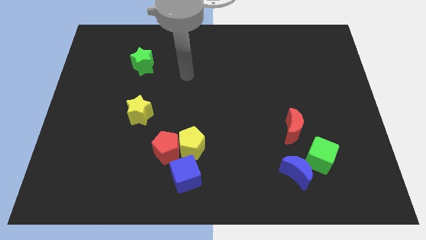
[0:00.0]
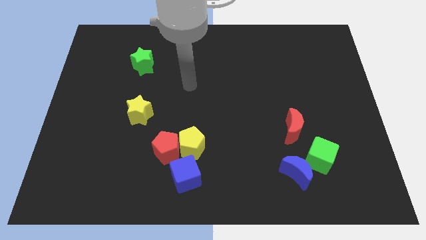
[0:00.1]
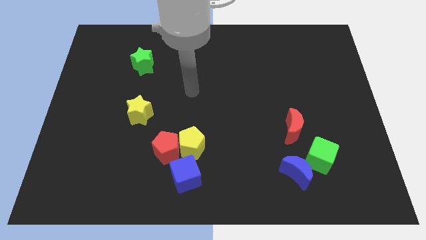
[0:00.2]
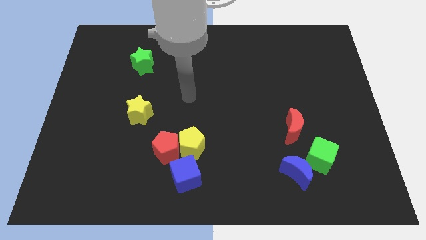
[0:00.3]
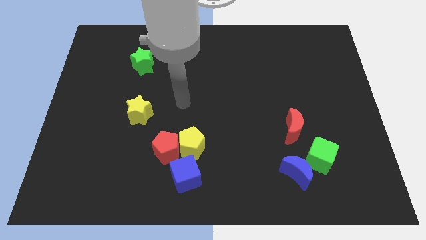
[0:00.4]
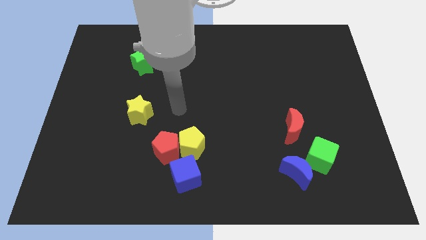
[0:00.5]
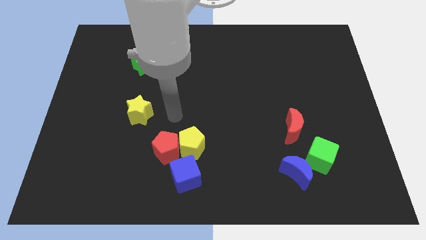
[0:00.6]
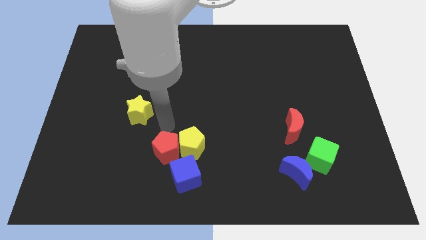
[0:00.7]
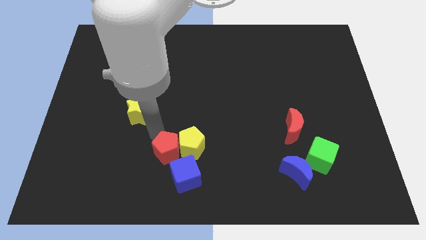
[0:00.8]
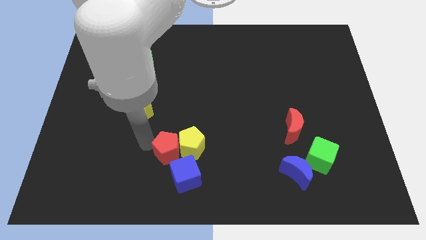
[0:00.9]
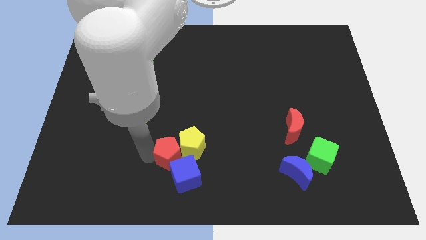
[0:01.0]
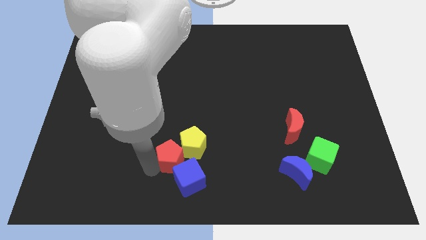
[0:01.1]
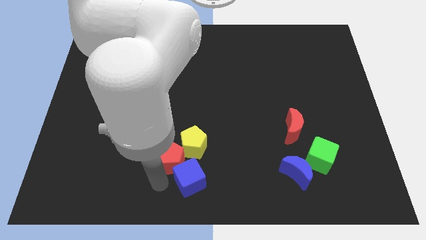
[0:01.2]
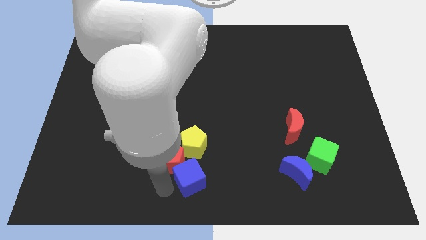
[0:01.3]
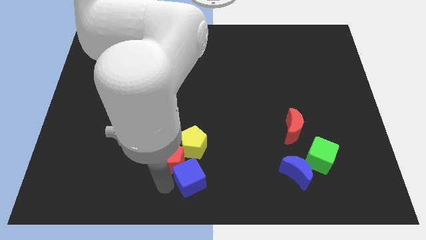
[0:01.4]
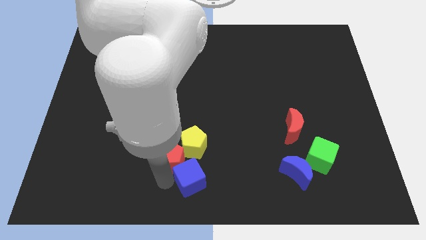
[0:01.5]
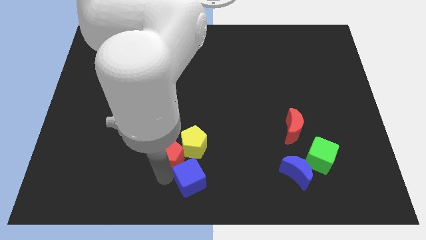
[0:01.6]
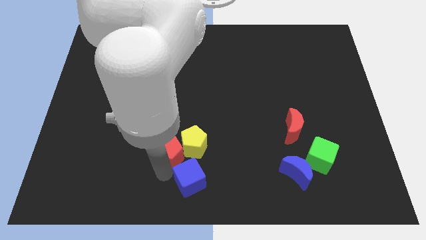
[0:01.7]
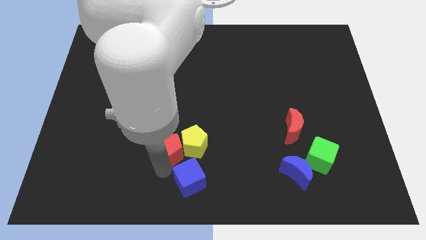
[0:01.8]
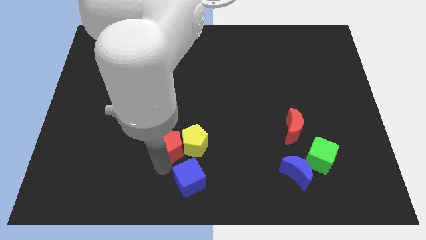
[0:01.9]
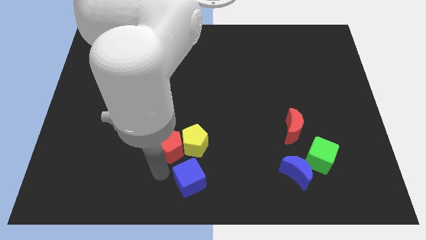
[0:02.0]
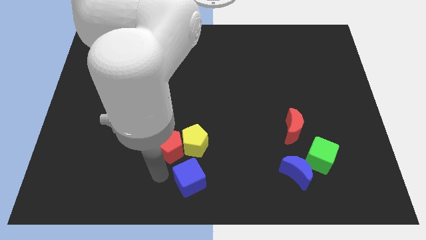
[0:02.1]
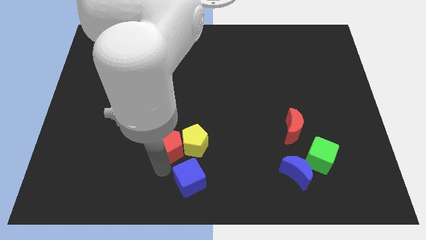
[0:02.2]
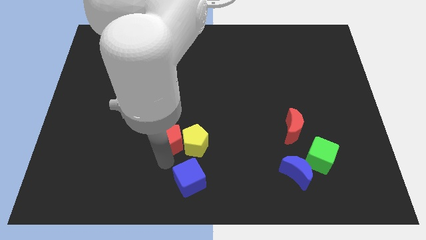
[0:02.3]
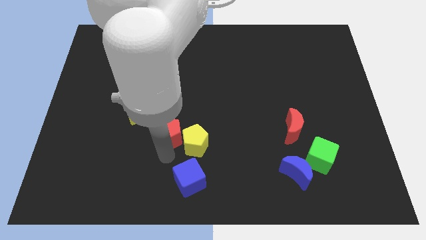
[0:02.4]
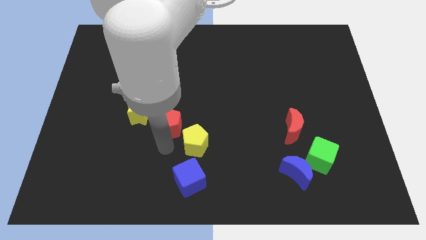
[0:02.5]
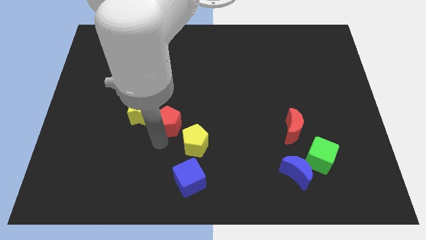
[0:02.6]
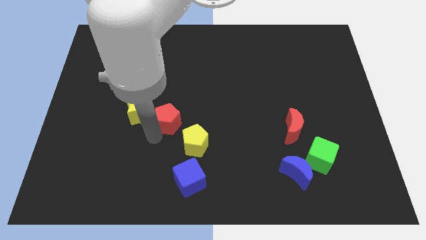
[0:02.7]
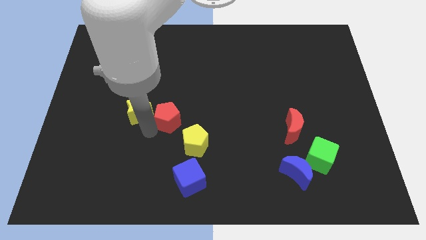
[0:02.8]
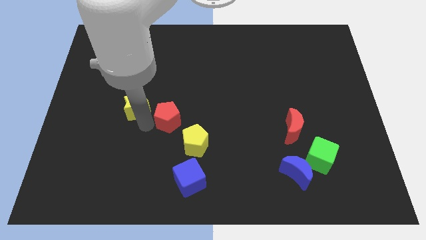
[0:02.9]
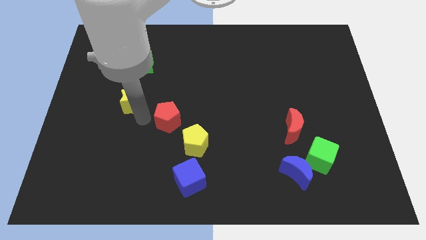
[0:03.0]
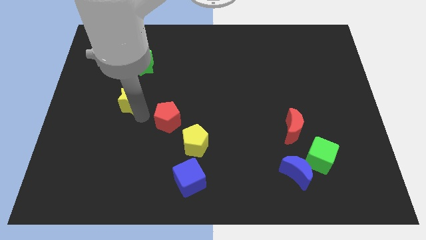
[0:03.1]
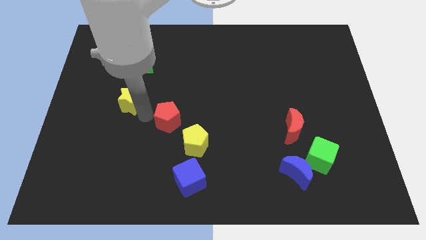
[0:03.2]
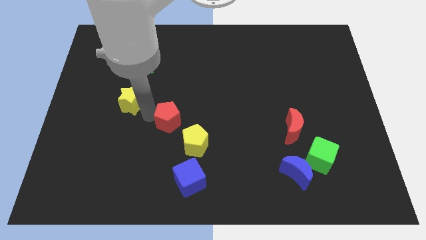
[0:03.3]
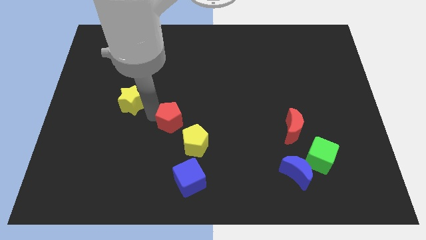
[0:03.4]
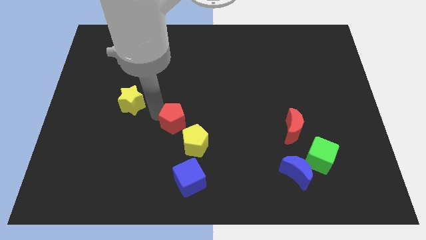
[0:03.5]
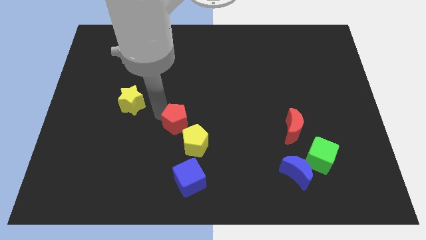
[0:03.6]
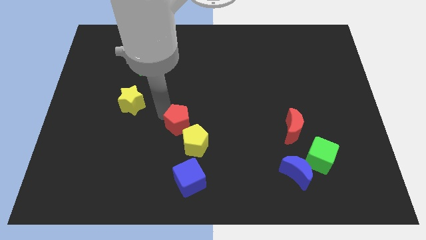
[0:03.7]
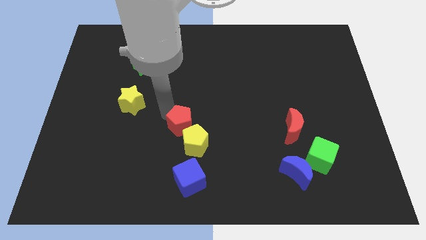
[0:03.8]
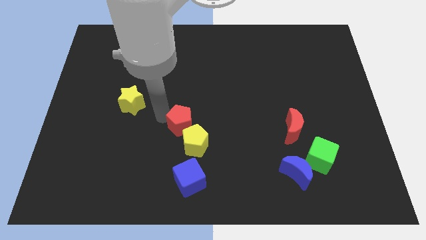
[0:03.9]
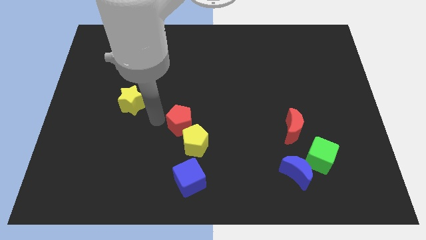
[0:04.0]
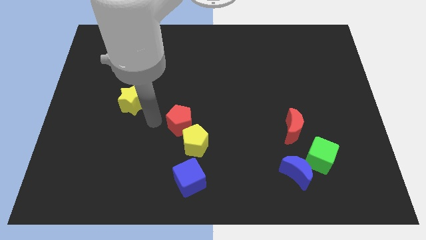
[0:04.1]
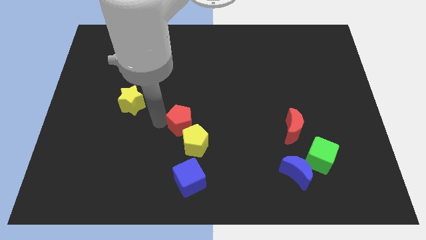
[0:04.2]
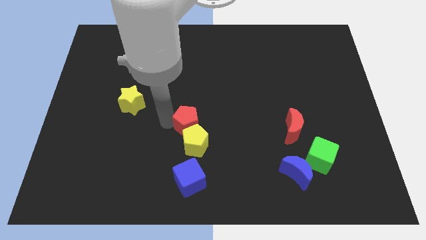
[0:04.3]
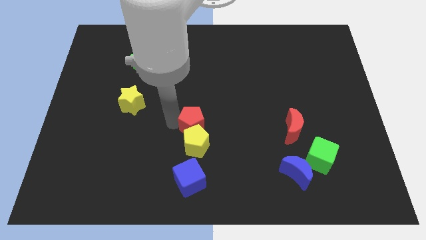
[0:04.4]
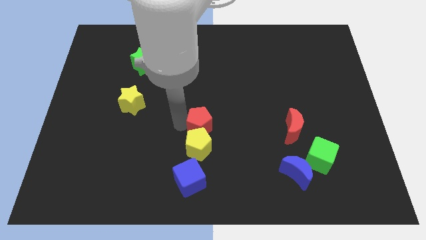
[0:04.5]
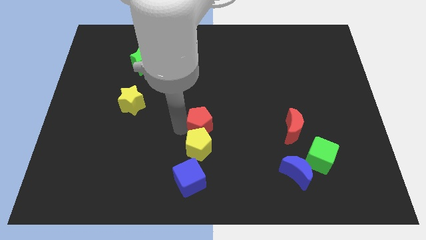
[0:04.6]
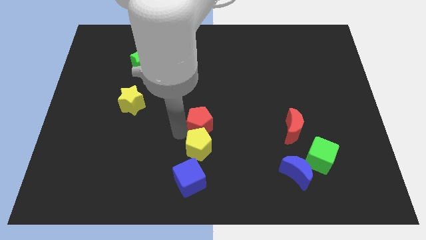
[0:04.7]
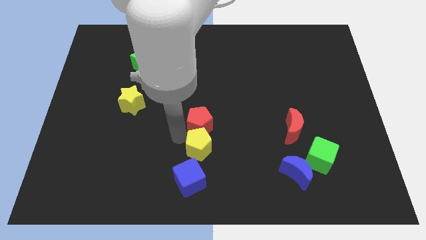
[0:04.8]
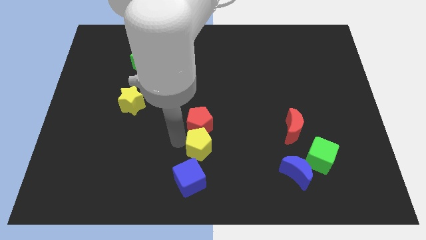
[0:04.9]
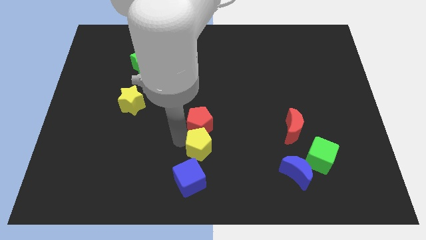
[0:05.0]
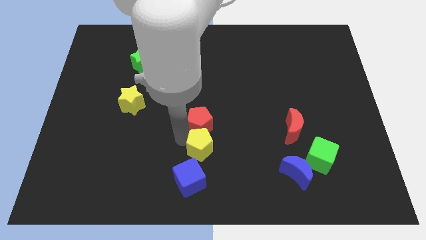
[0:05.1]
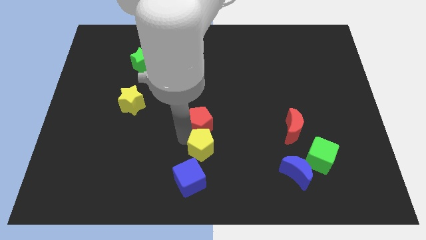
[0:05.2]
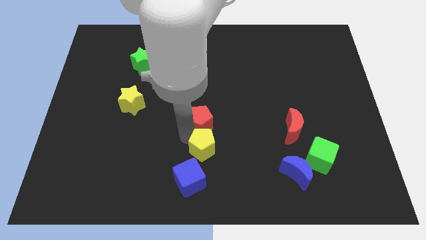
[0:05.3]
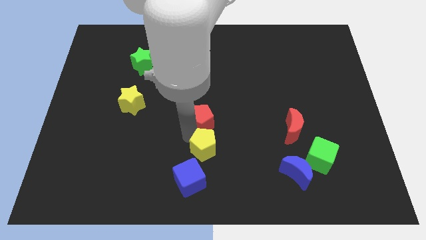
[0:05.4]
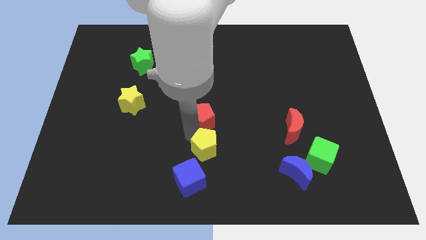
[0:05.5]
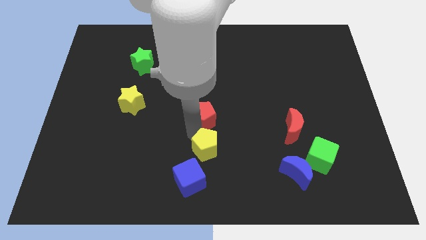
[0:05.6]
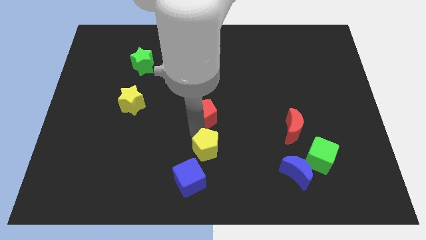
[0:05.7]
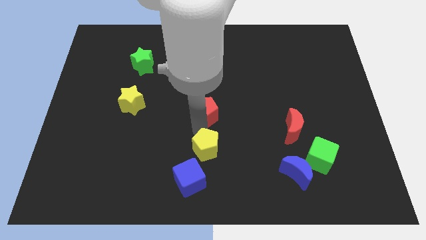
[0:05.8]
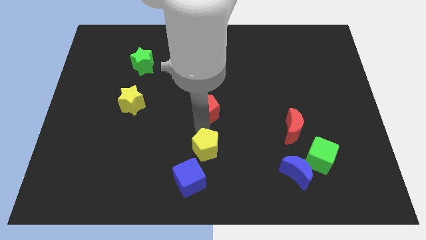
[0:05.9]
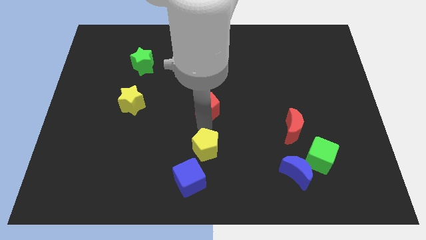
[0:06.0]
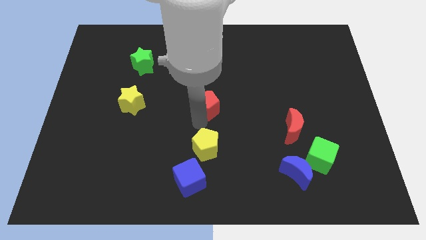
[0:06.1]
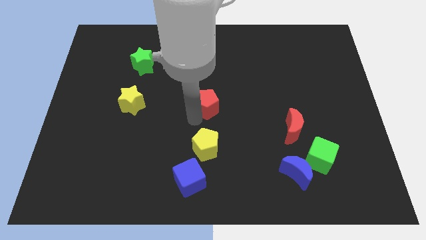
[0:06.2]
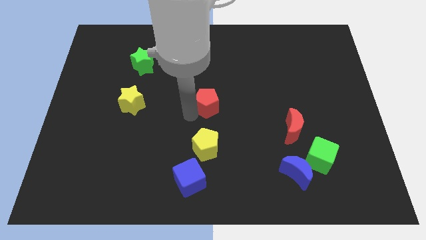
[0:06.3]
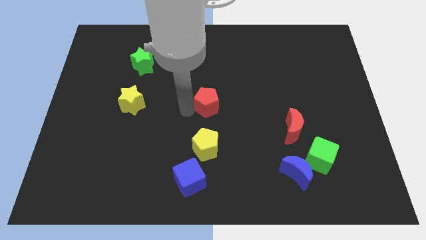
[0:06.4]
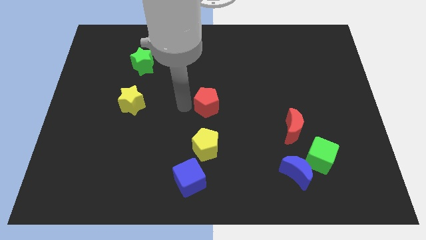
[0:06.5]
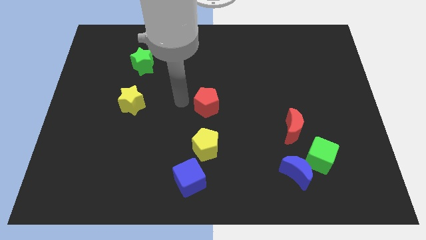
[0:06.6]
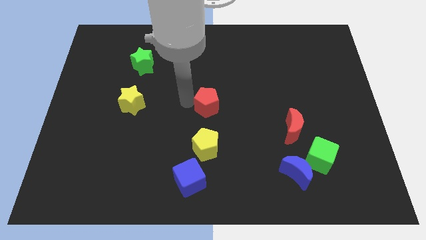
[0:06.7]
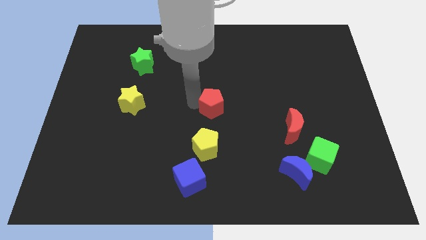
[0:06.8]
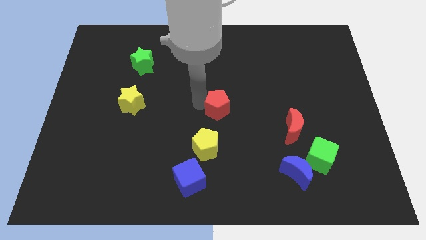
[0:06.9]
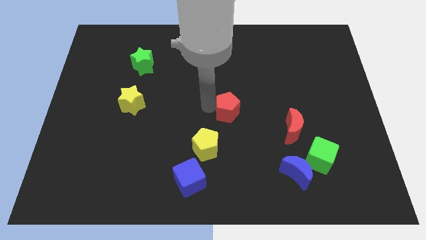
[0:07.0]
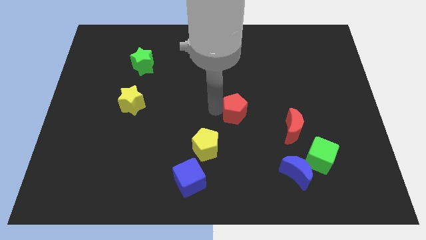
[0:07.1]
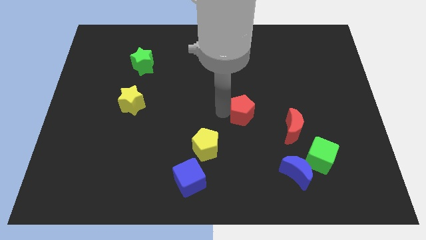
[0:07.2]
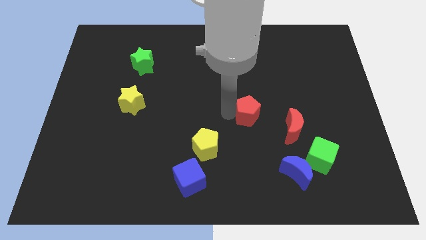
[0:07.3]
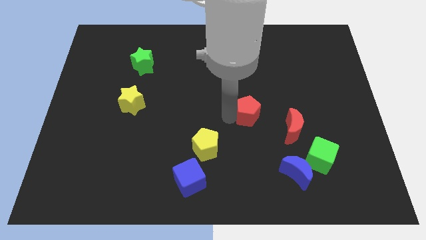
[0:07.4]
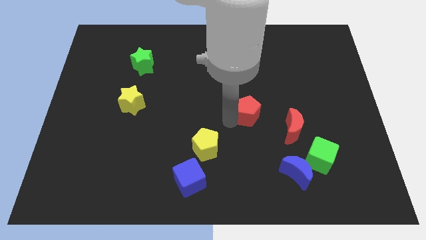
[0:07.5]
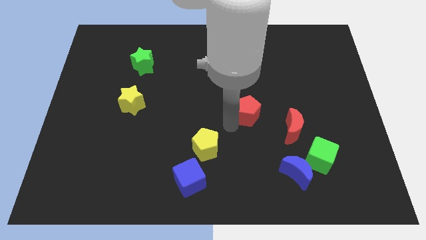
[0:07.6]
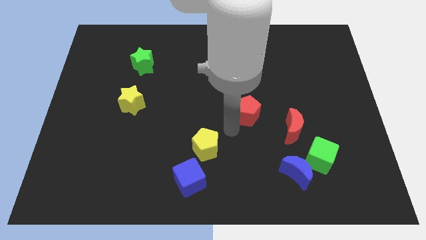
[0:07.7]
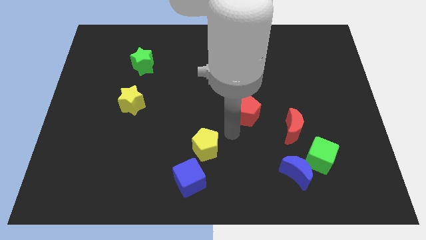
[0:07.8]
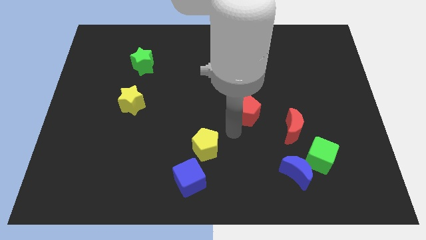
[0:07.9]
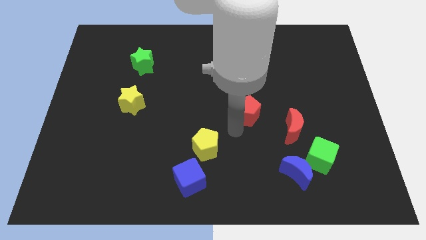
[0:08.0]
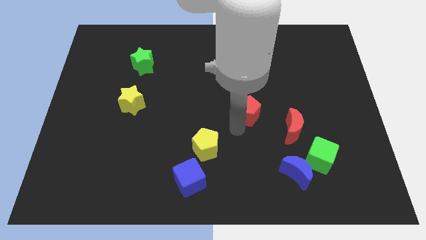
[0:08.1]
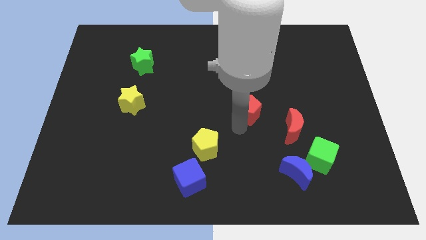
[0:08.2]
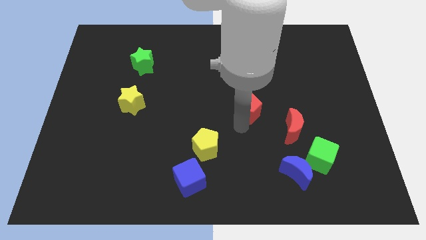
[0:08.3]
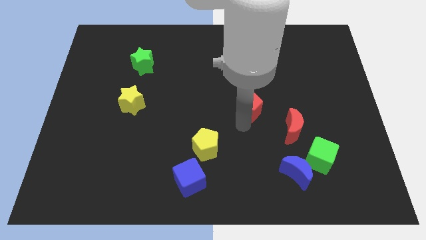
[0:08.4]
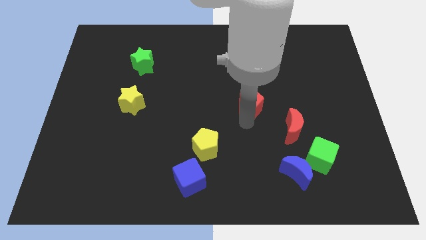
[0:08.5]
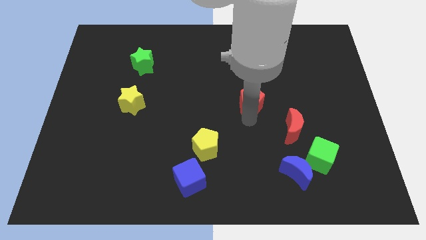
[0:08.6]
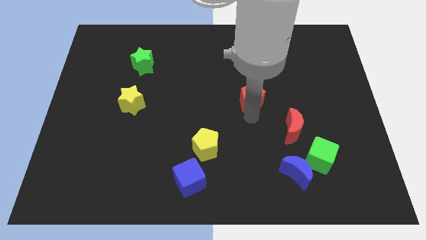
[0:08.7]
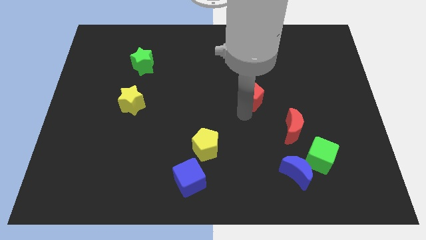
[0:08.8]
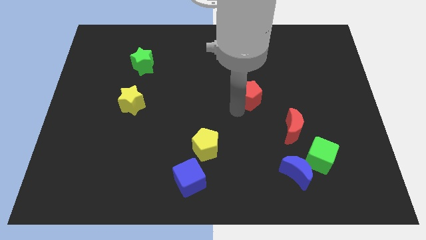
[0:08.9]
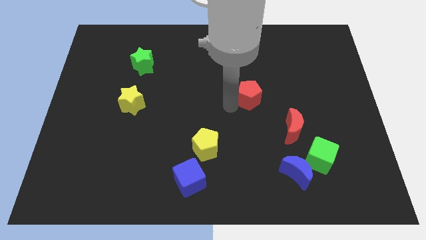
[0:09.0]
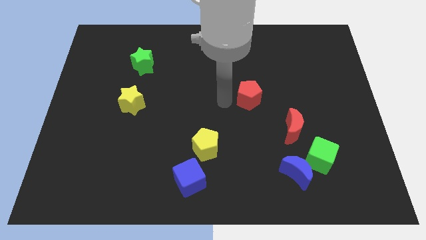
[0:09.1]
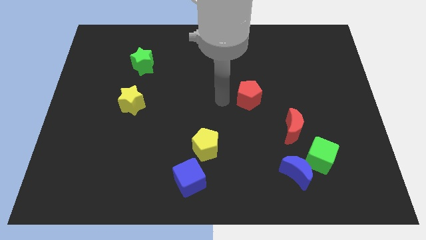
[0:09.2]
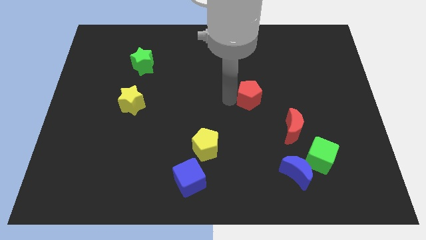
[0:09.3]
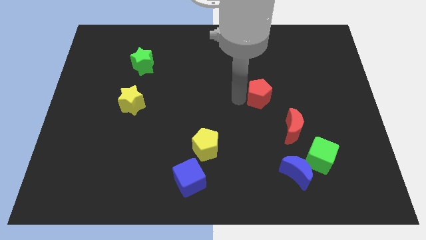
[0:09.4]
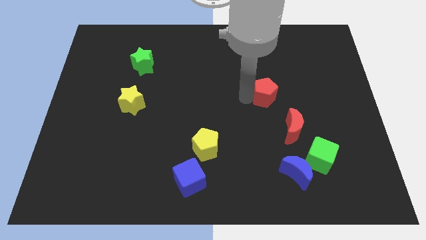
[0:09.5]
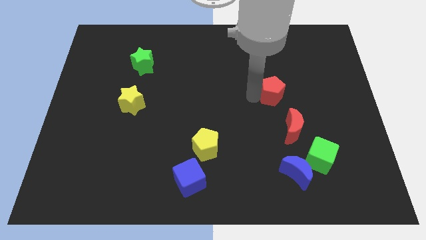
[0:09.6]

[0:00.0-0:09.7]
slide the red pentagon above the red moon
